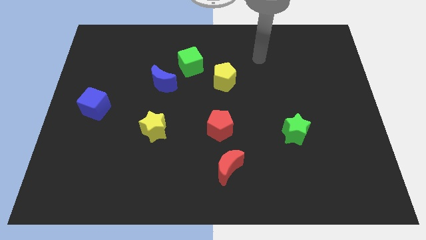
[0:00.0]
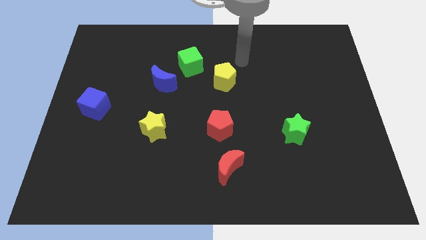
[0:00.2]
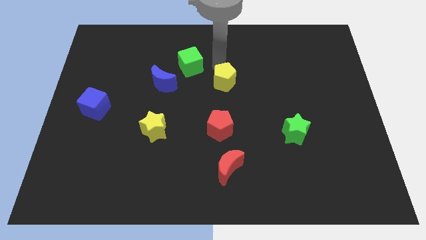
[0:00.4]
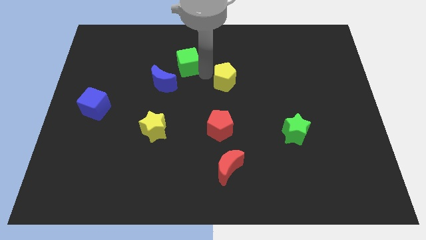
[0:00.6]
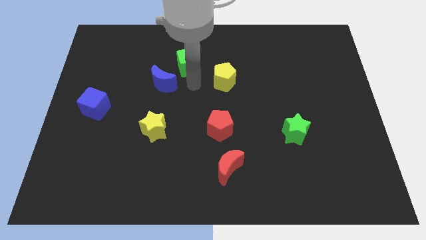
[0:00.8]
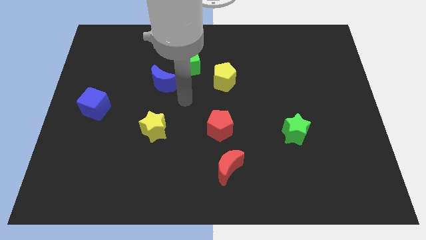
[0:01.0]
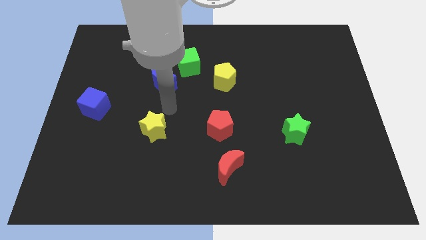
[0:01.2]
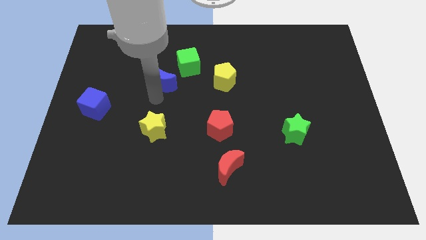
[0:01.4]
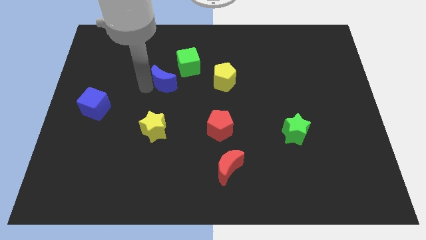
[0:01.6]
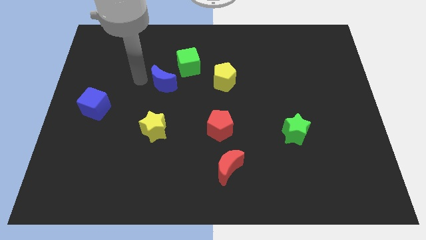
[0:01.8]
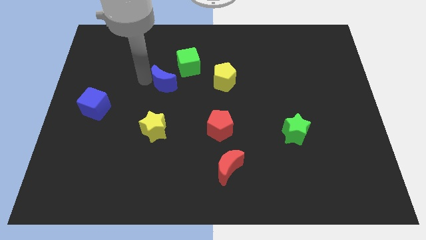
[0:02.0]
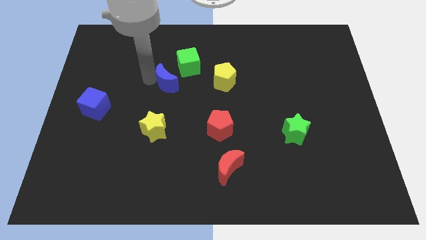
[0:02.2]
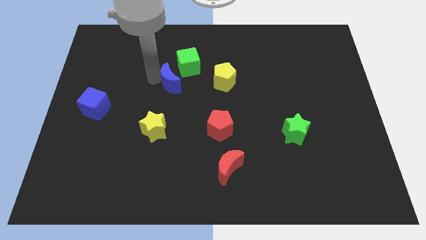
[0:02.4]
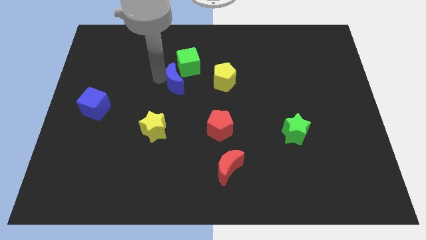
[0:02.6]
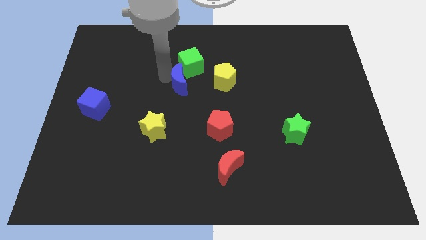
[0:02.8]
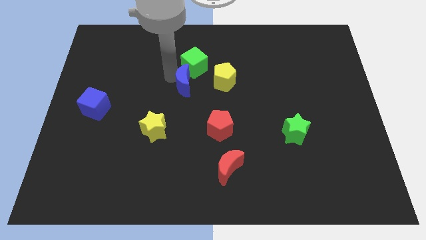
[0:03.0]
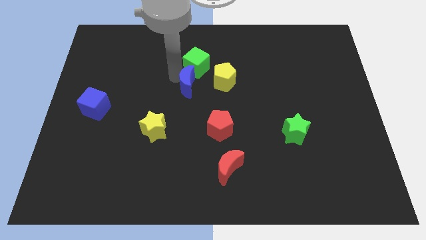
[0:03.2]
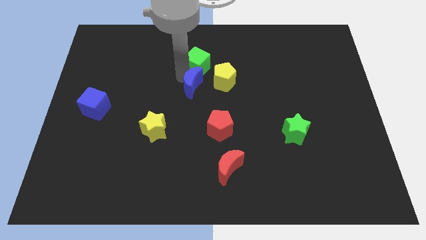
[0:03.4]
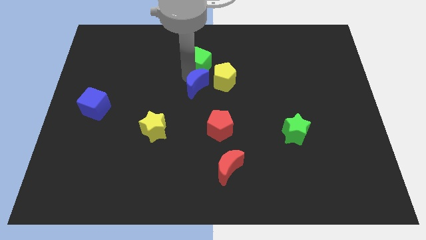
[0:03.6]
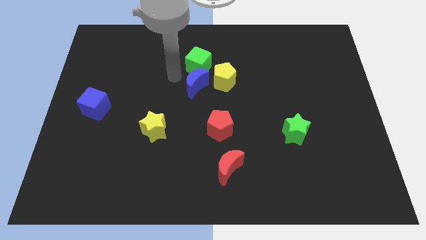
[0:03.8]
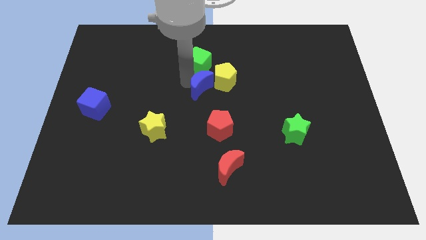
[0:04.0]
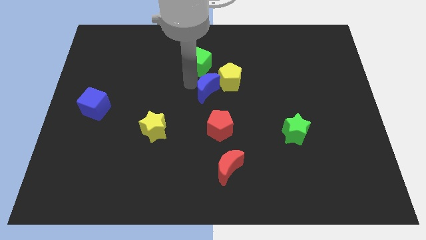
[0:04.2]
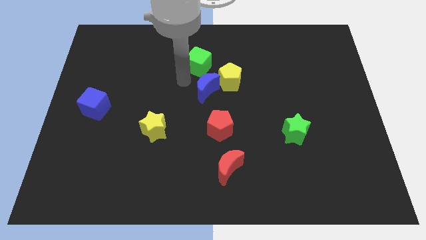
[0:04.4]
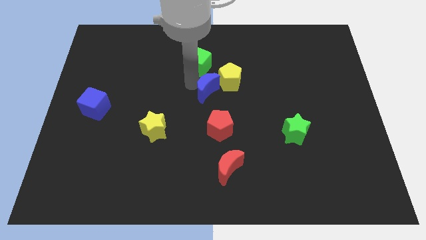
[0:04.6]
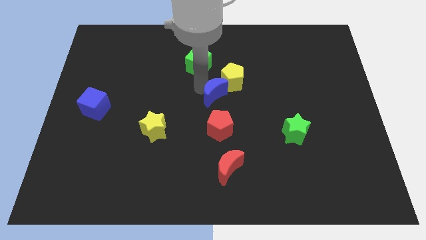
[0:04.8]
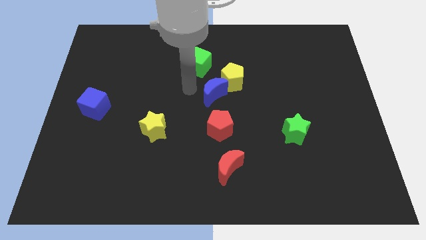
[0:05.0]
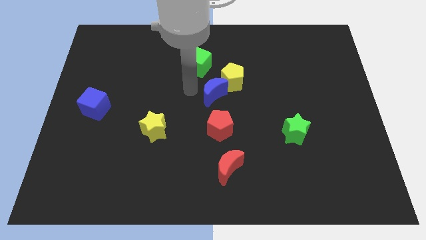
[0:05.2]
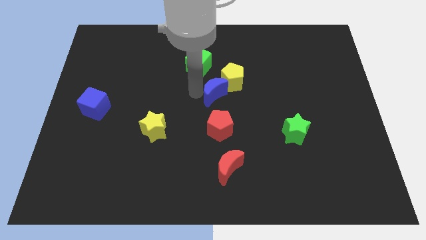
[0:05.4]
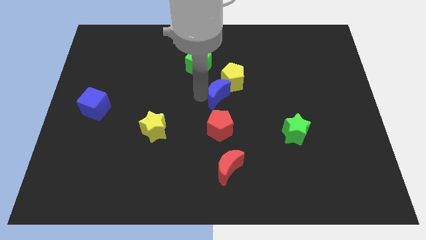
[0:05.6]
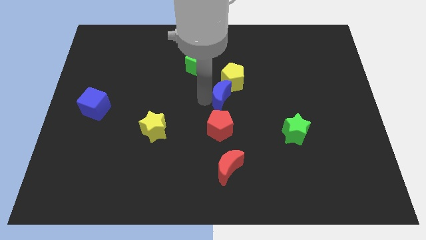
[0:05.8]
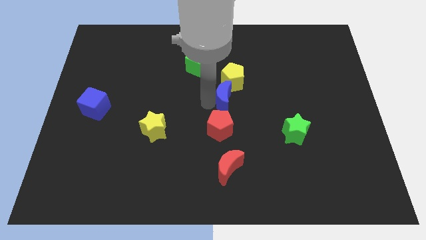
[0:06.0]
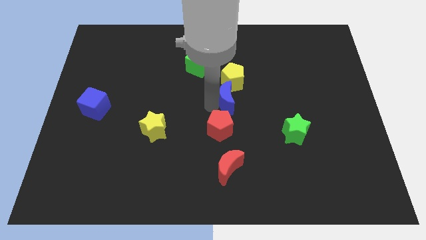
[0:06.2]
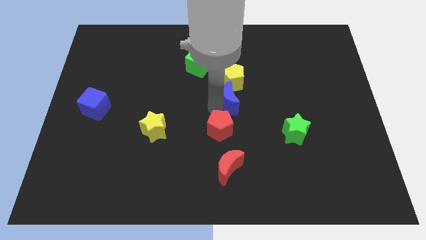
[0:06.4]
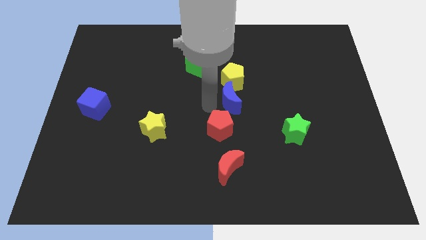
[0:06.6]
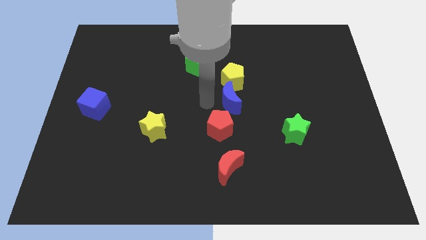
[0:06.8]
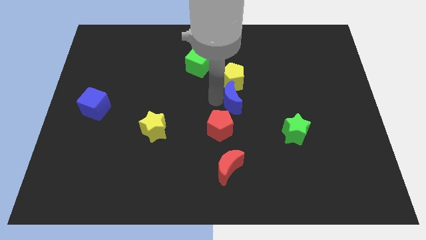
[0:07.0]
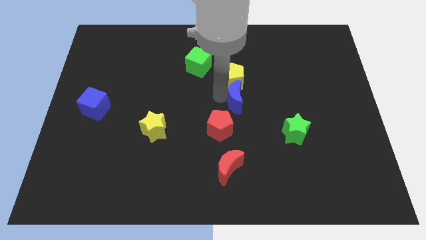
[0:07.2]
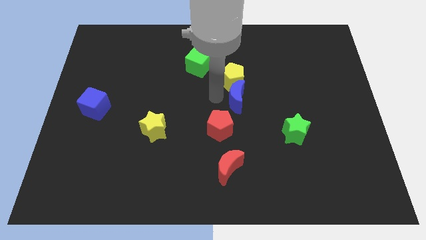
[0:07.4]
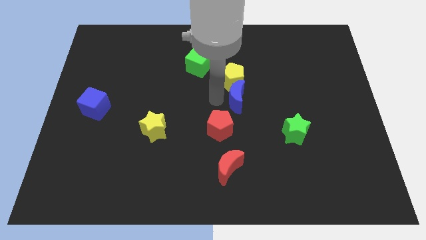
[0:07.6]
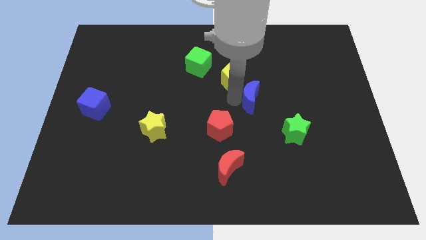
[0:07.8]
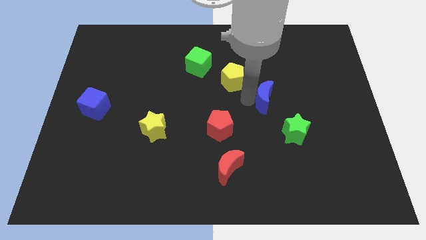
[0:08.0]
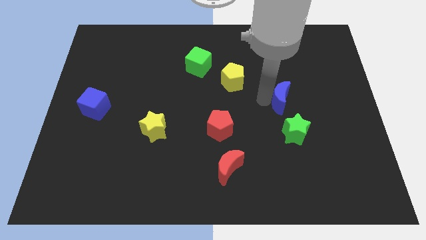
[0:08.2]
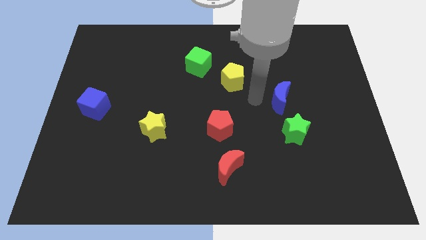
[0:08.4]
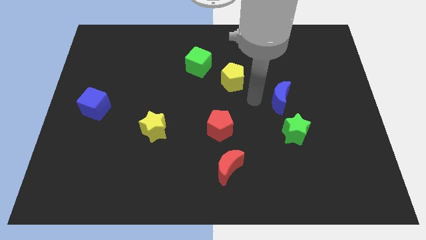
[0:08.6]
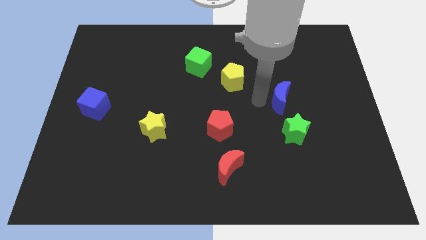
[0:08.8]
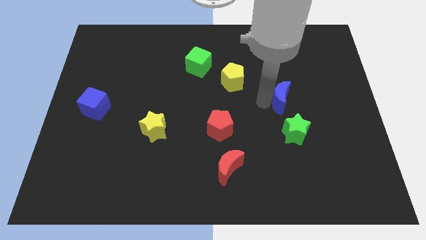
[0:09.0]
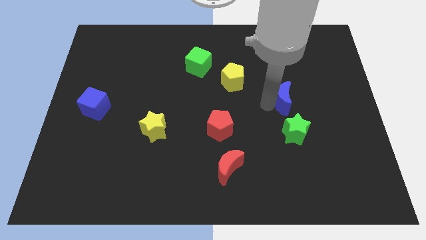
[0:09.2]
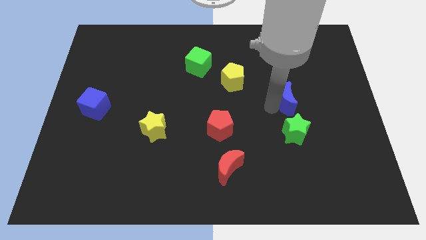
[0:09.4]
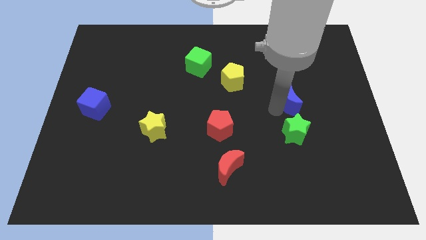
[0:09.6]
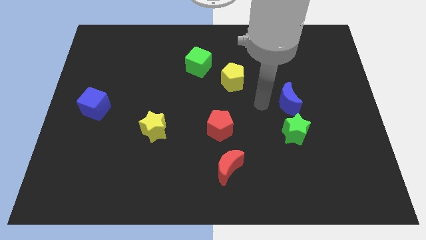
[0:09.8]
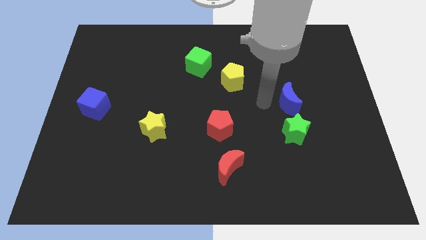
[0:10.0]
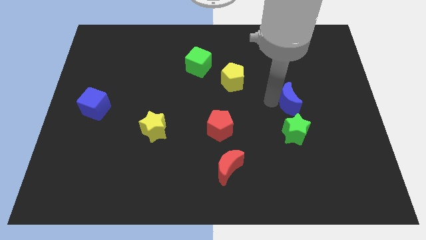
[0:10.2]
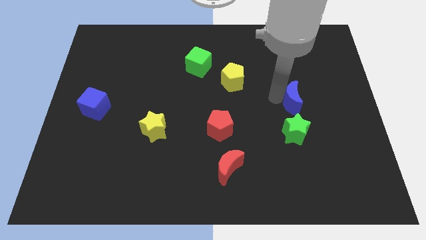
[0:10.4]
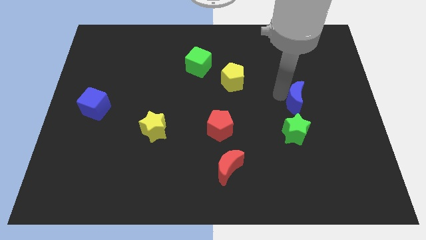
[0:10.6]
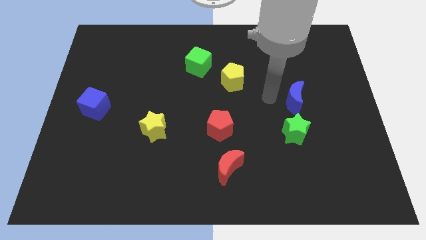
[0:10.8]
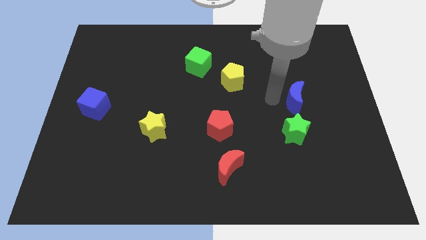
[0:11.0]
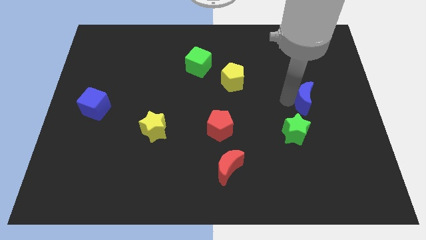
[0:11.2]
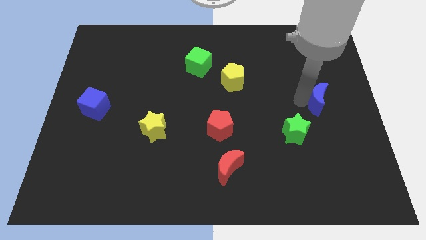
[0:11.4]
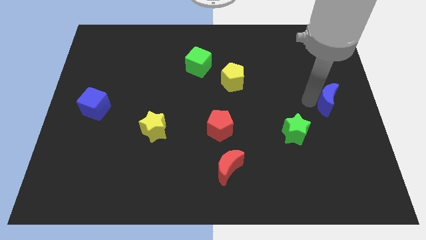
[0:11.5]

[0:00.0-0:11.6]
slide the blue moon to the right side of the board
